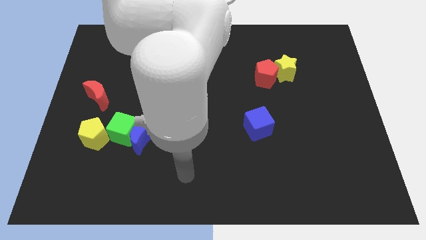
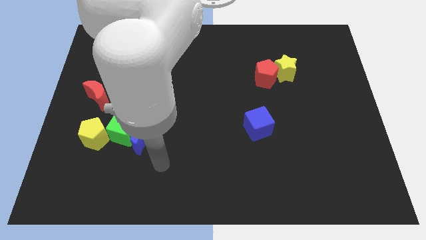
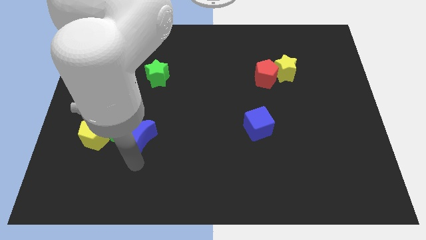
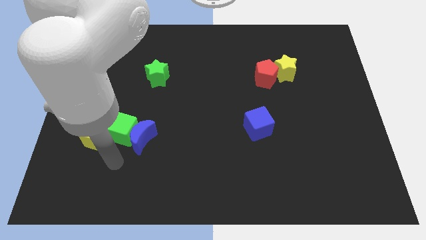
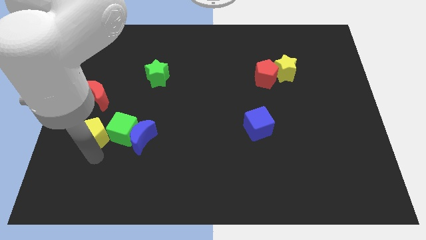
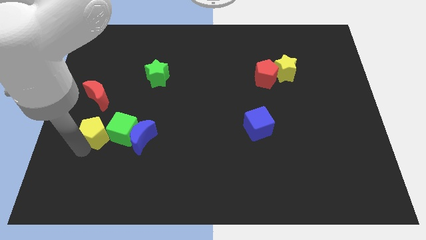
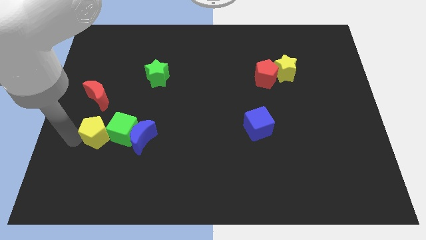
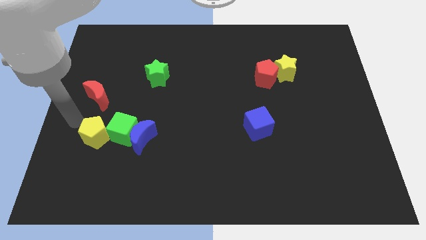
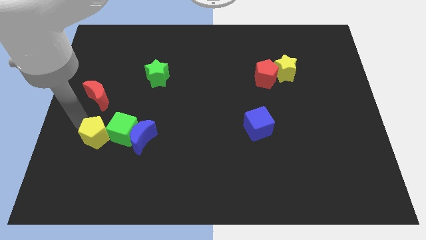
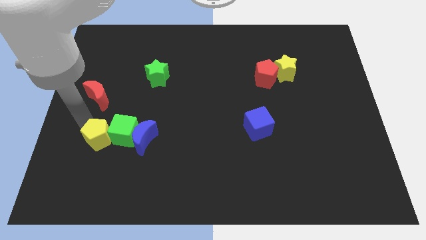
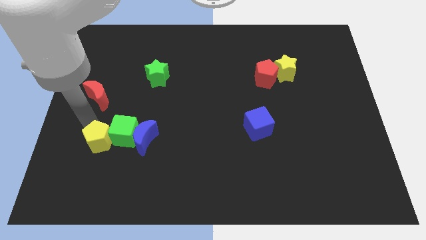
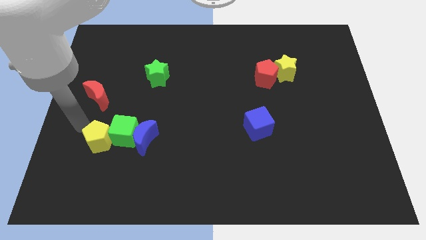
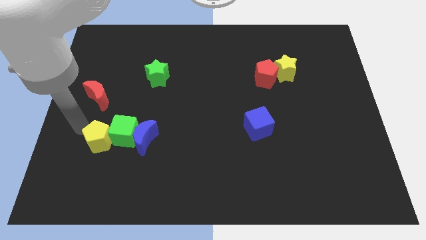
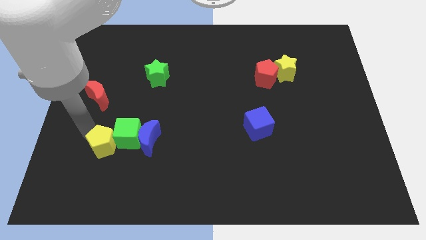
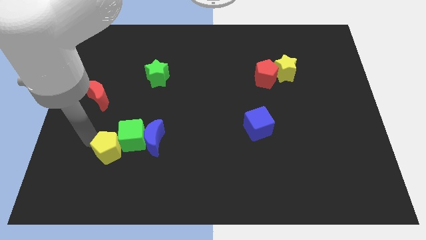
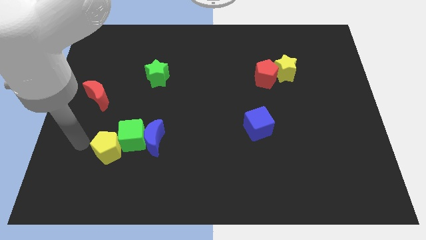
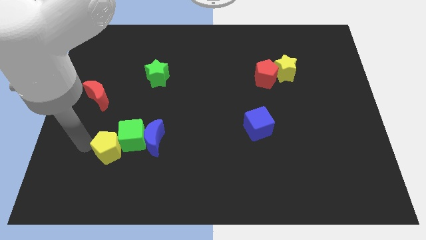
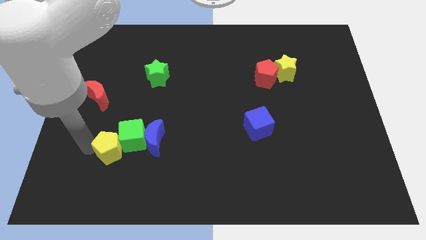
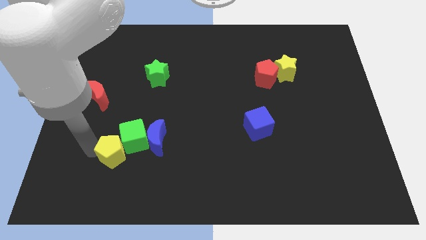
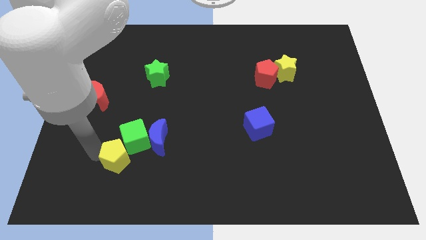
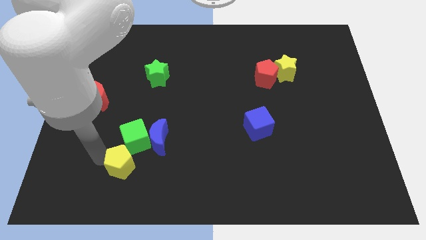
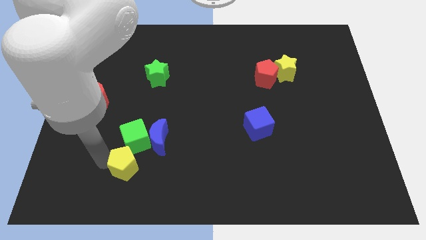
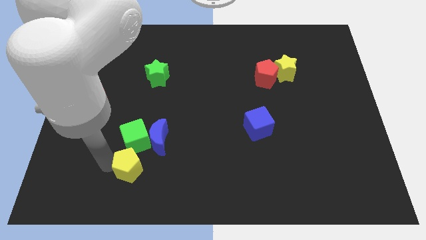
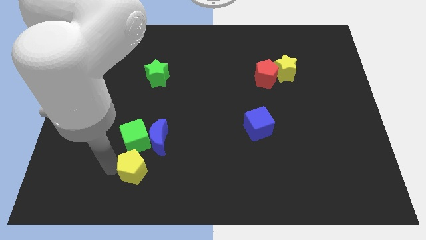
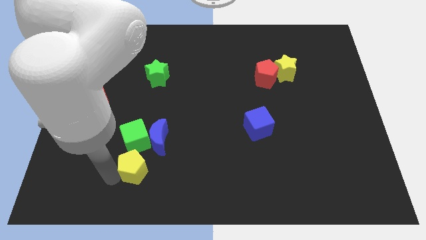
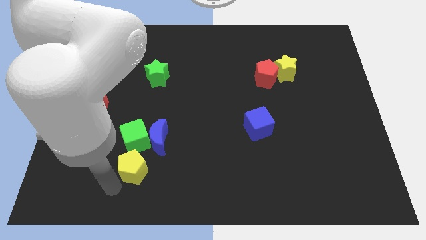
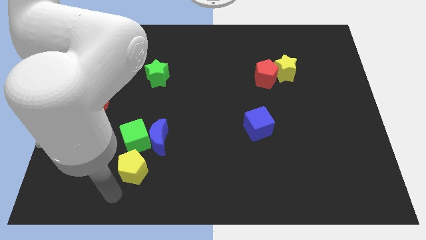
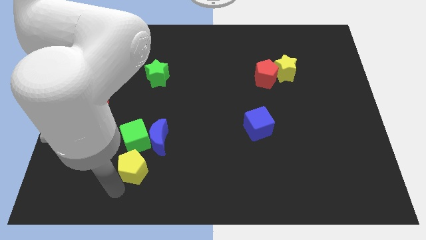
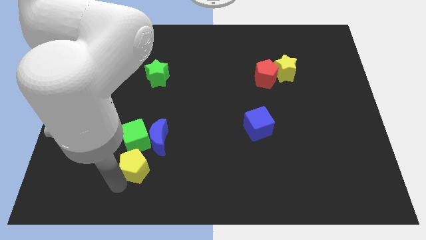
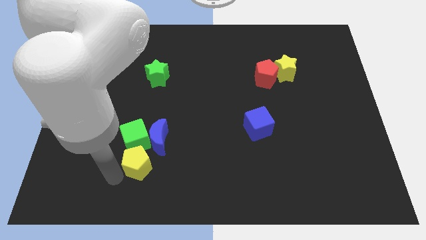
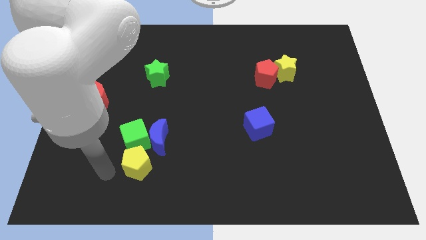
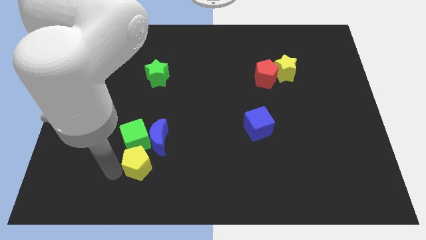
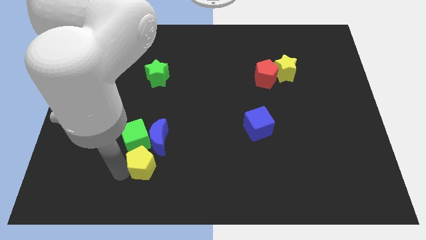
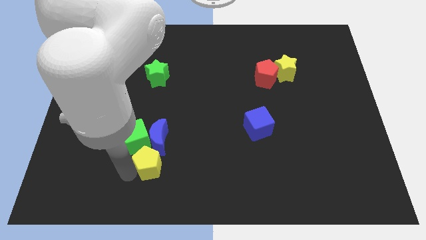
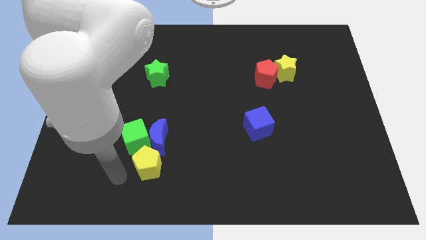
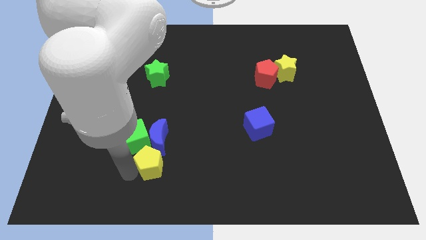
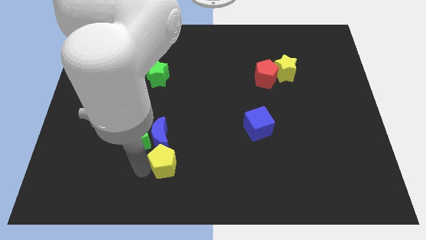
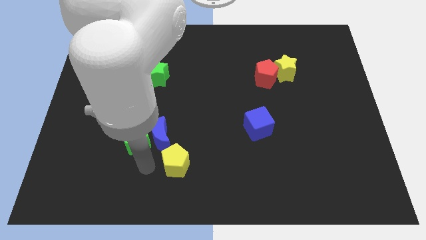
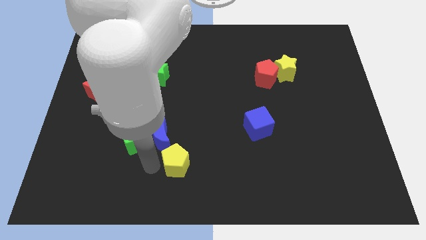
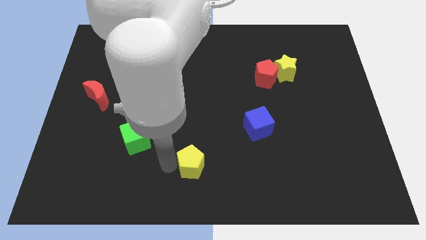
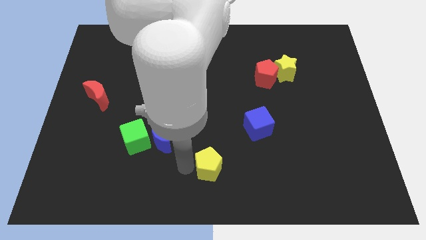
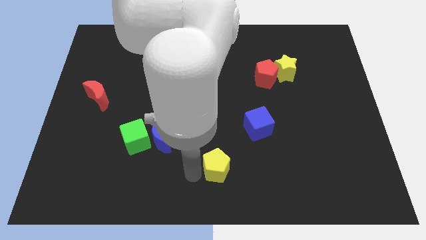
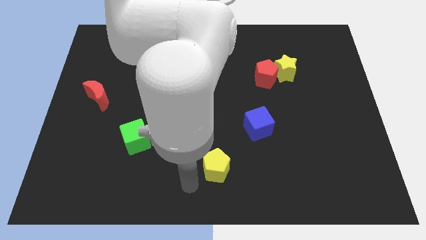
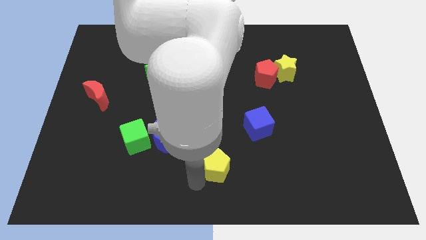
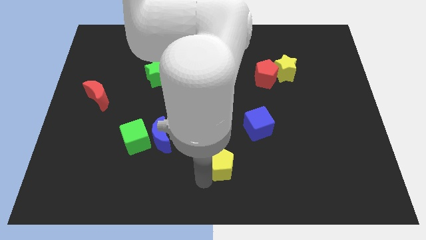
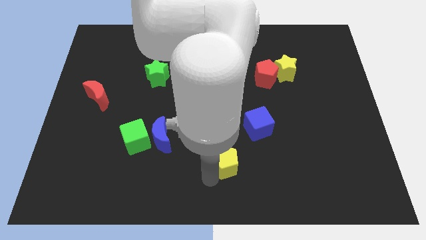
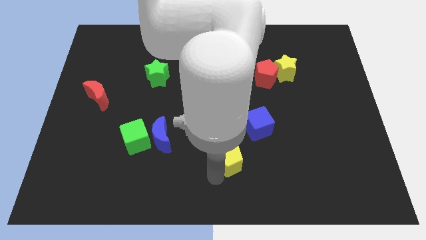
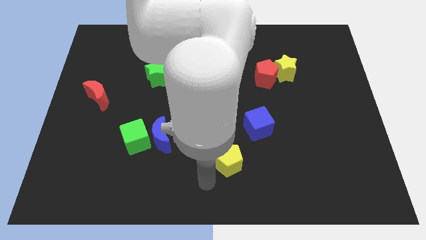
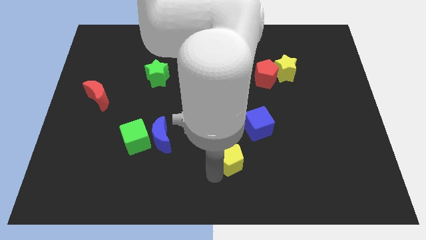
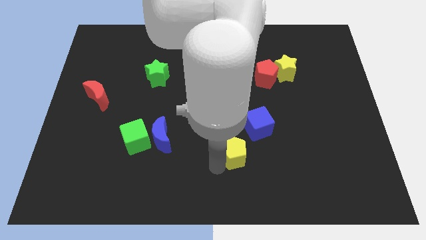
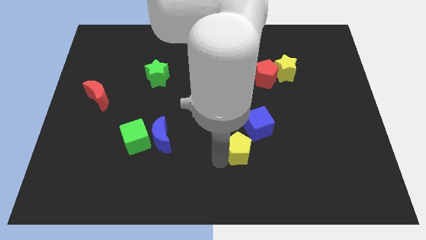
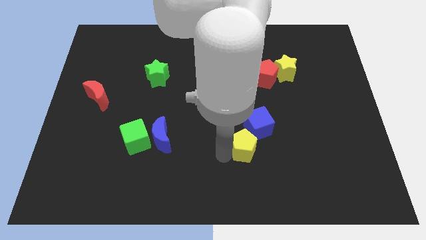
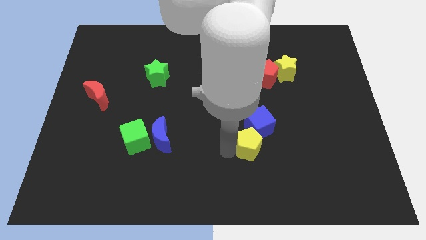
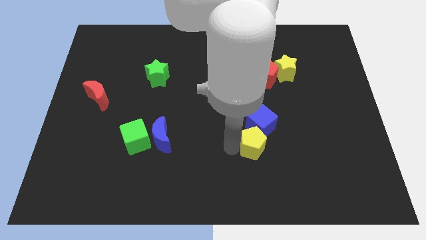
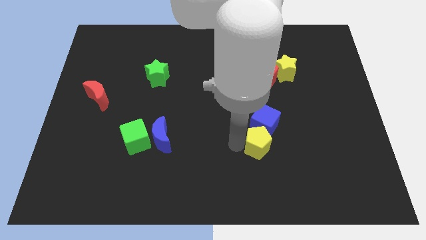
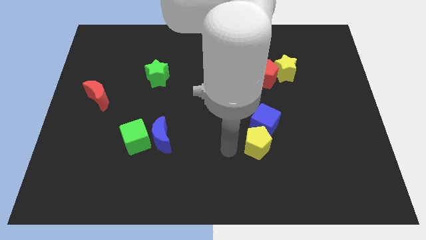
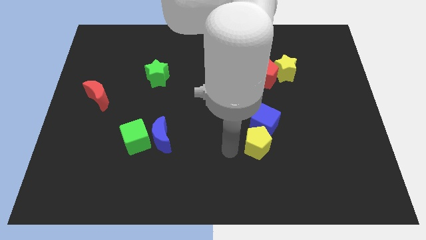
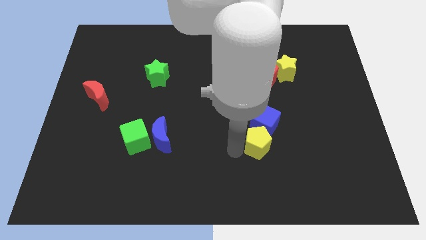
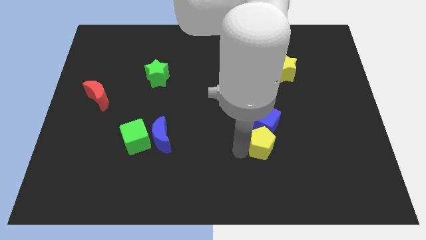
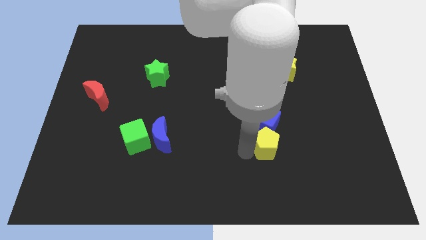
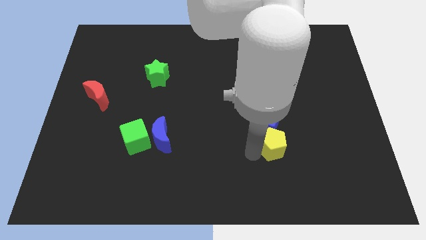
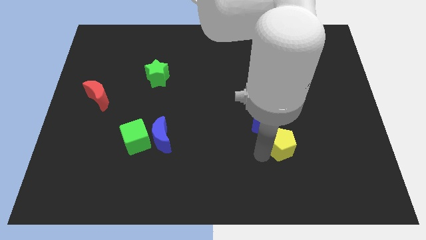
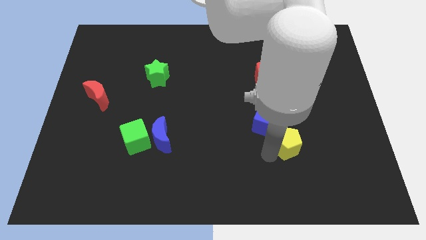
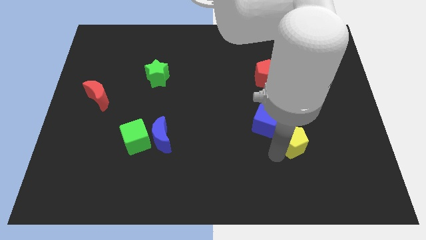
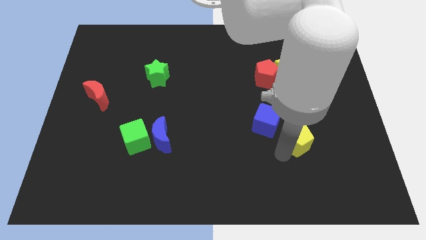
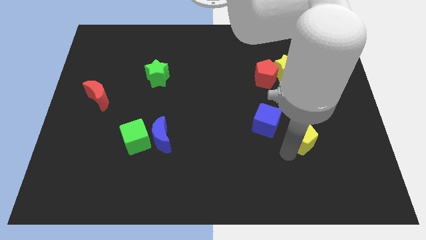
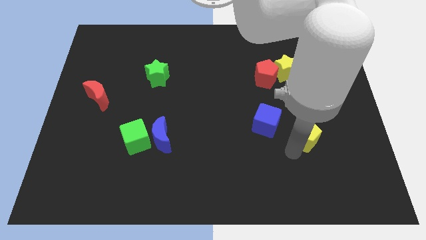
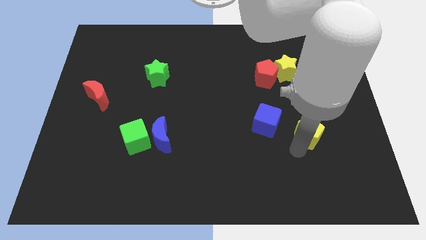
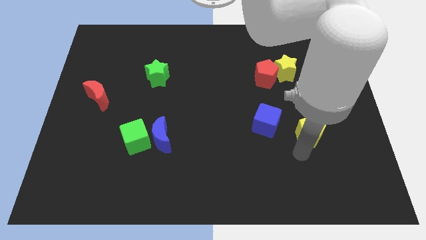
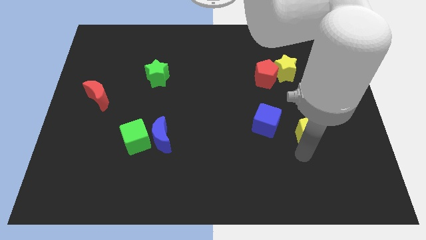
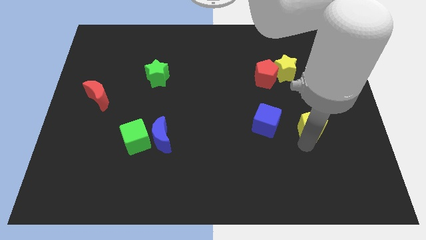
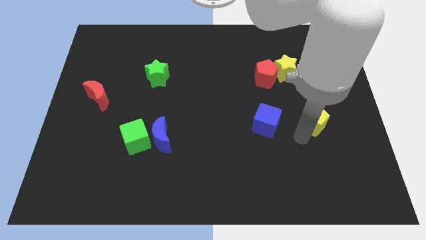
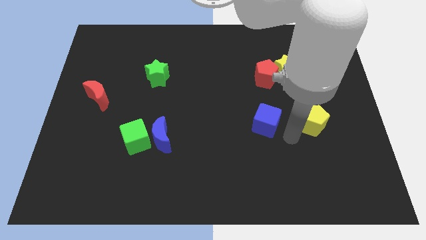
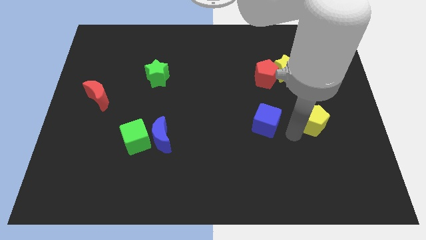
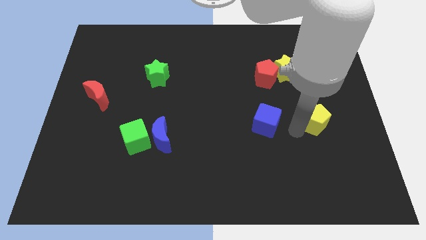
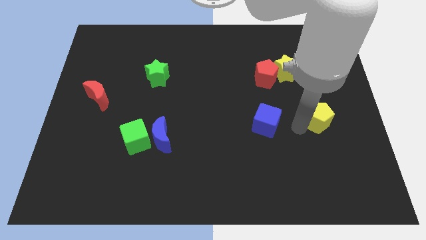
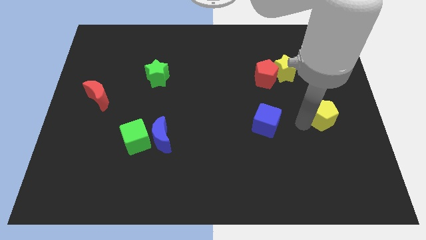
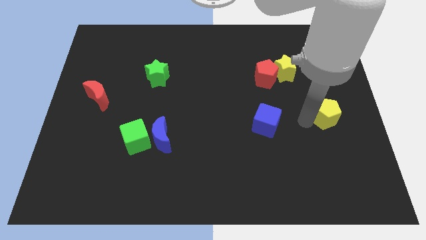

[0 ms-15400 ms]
slide the yellow pentagon to the right side
